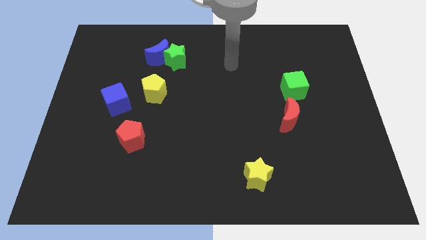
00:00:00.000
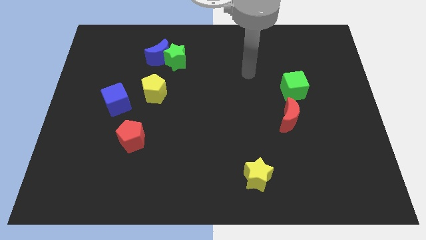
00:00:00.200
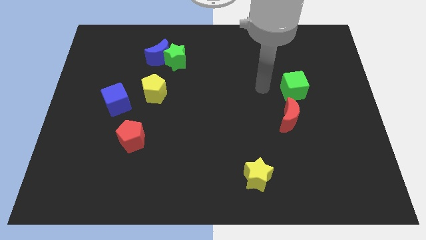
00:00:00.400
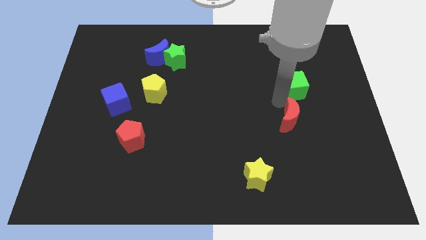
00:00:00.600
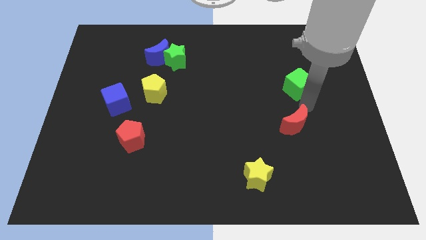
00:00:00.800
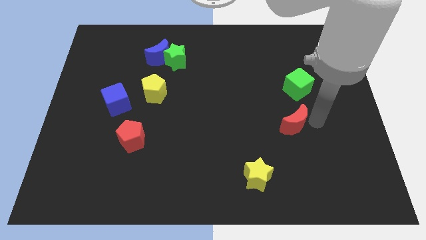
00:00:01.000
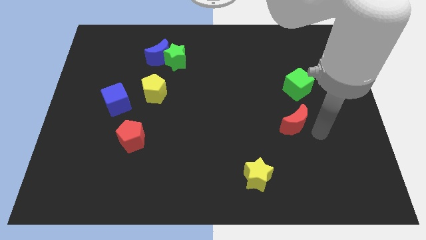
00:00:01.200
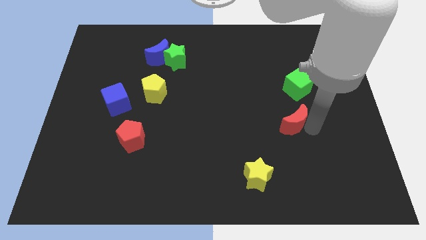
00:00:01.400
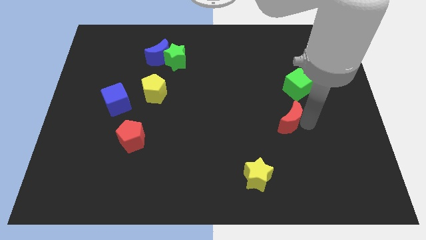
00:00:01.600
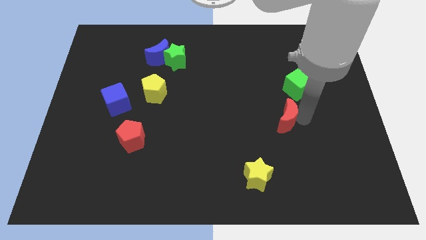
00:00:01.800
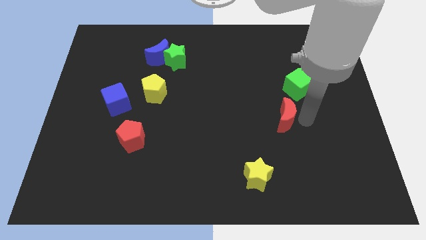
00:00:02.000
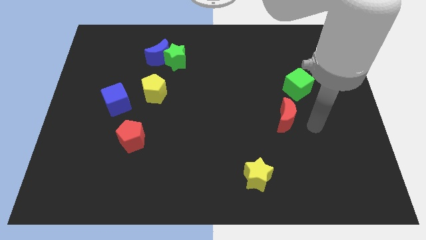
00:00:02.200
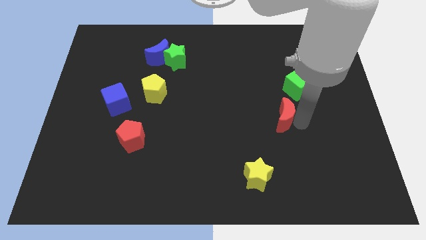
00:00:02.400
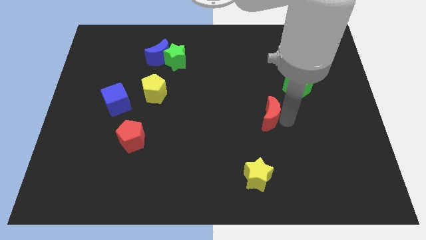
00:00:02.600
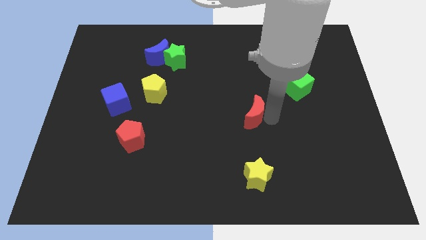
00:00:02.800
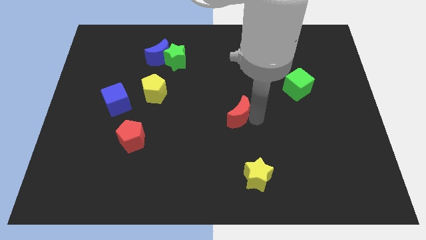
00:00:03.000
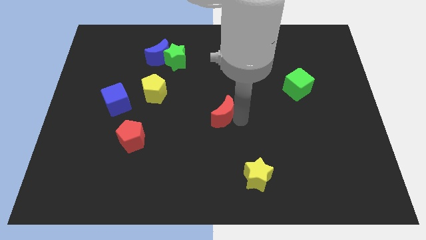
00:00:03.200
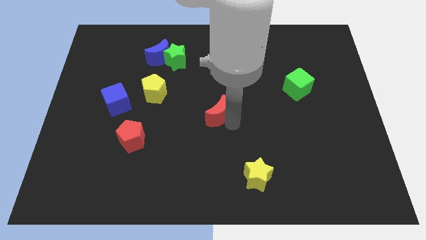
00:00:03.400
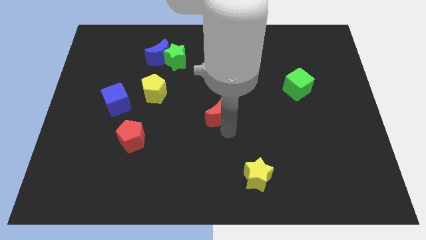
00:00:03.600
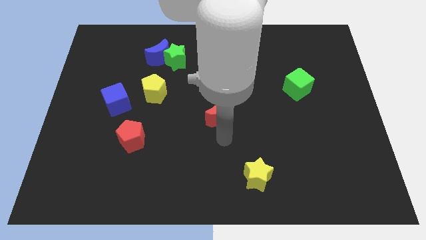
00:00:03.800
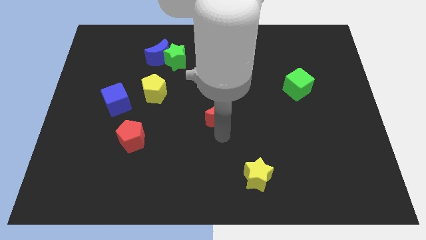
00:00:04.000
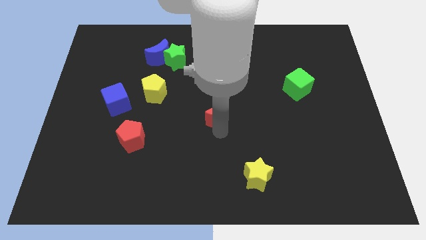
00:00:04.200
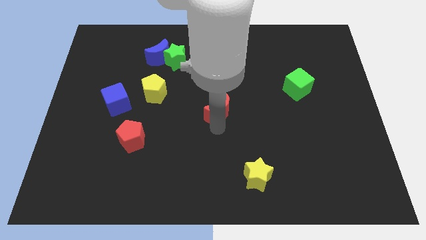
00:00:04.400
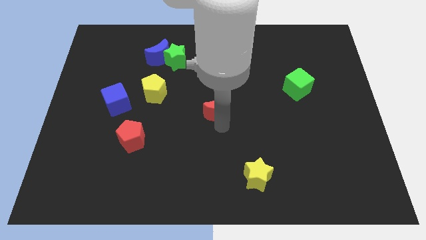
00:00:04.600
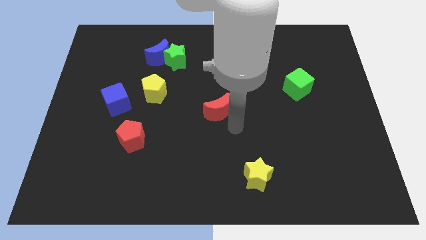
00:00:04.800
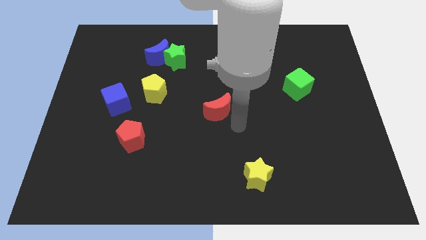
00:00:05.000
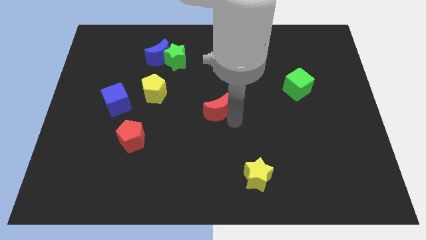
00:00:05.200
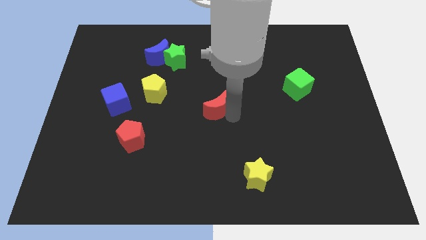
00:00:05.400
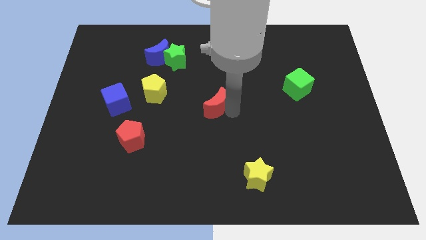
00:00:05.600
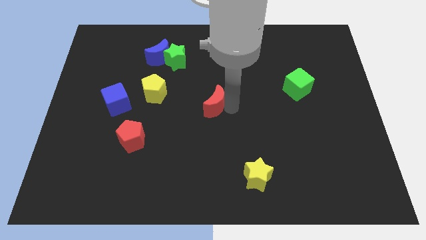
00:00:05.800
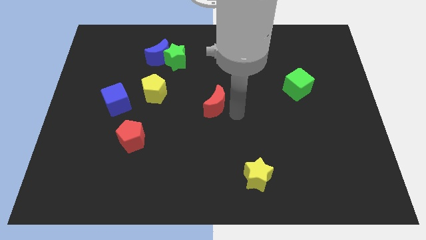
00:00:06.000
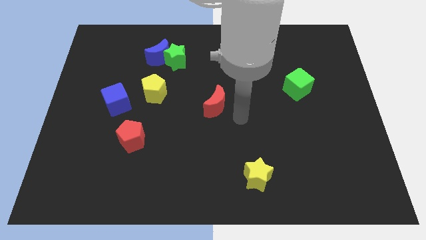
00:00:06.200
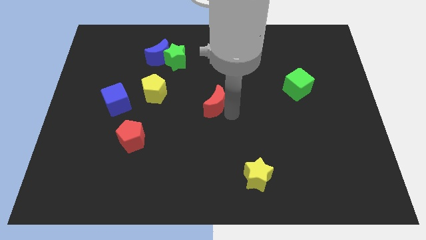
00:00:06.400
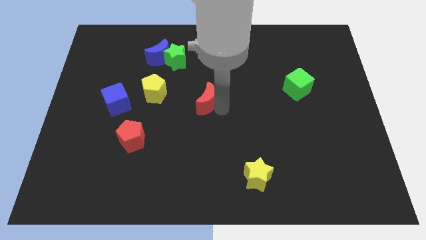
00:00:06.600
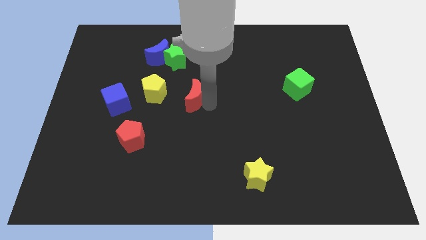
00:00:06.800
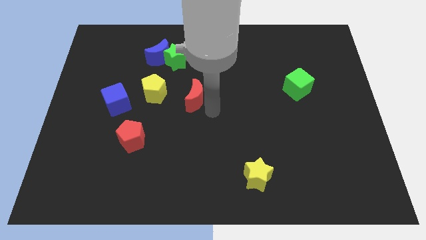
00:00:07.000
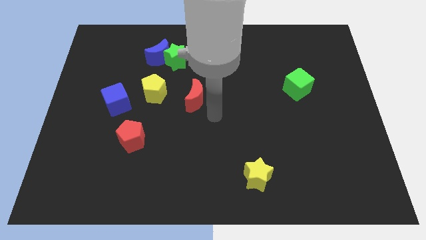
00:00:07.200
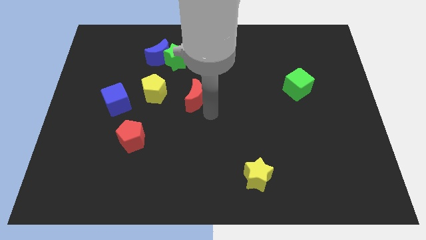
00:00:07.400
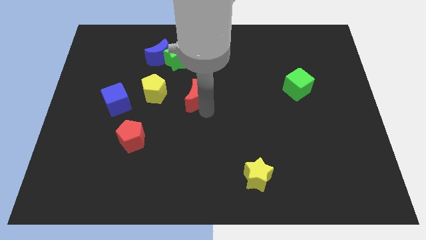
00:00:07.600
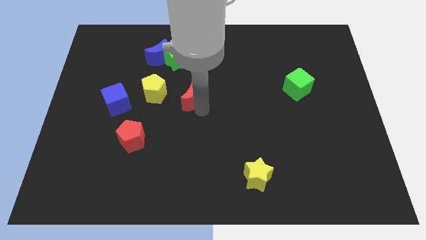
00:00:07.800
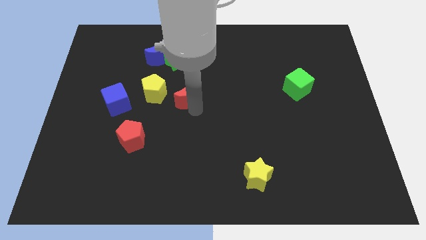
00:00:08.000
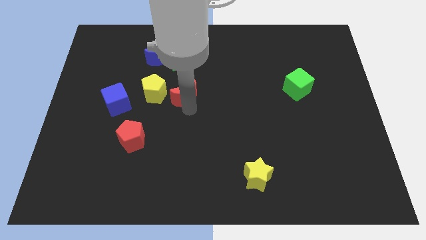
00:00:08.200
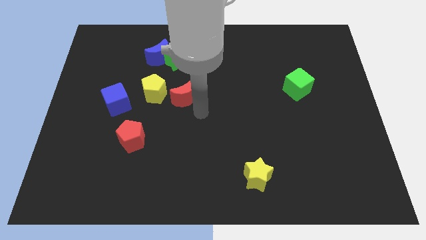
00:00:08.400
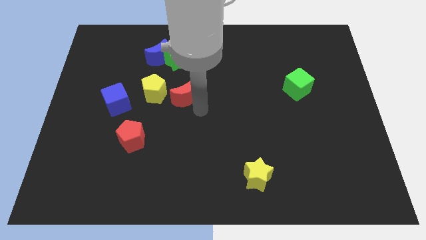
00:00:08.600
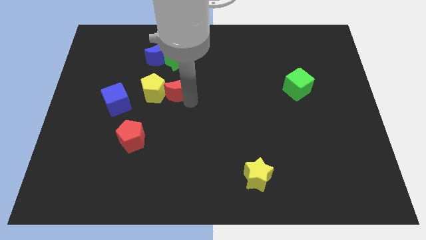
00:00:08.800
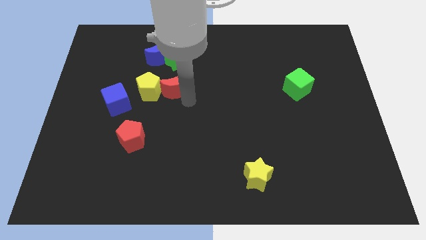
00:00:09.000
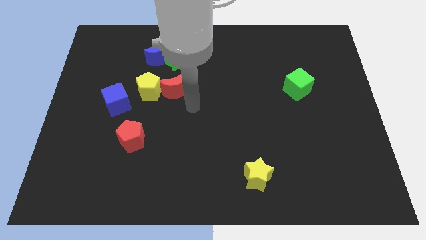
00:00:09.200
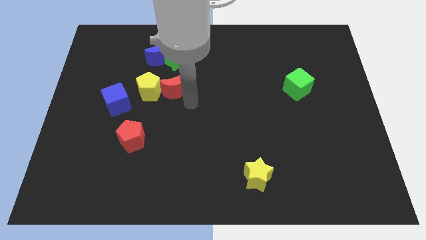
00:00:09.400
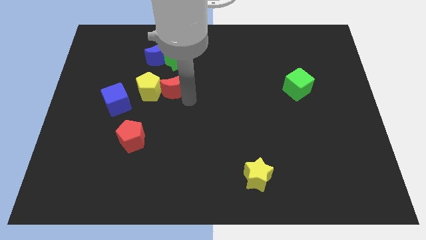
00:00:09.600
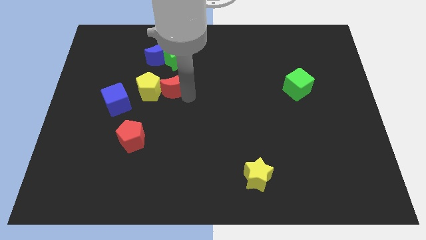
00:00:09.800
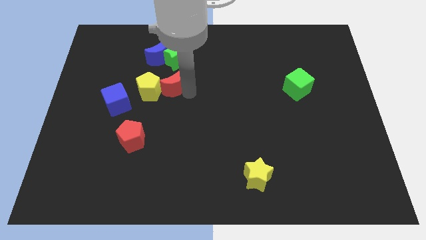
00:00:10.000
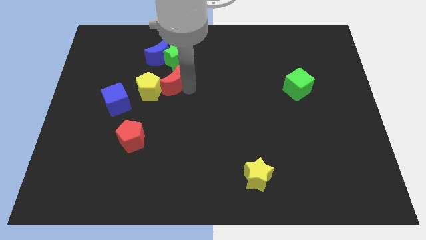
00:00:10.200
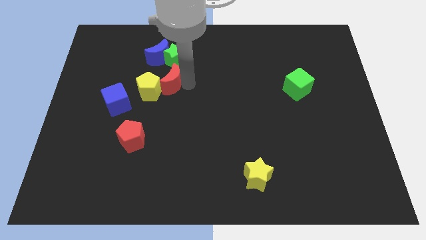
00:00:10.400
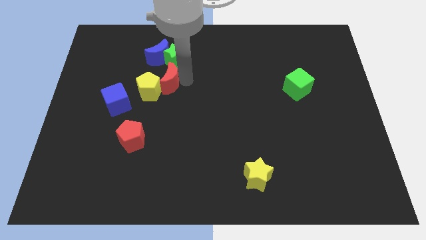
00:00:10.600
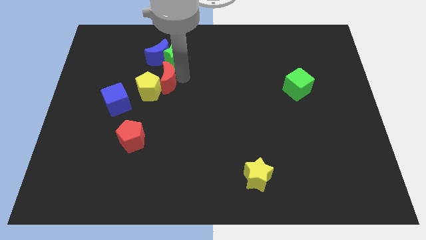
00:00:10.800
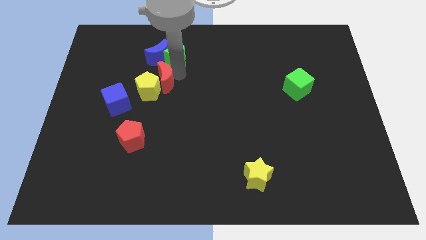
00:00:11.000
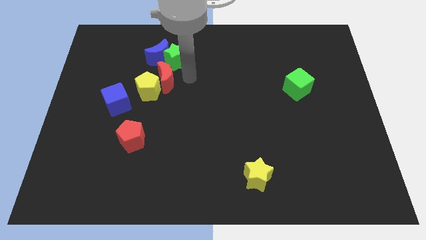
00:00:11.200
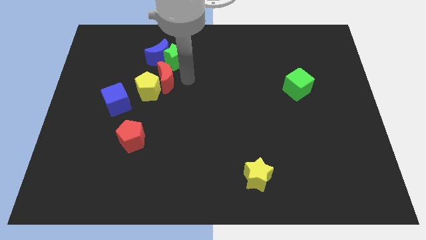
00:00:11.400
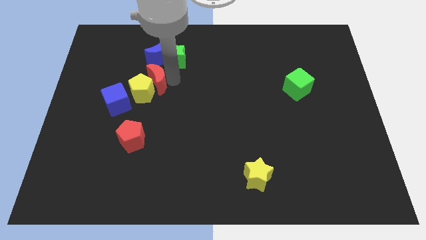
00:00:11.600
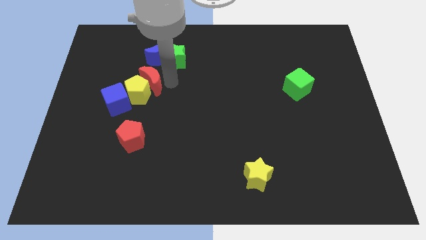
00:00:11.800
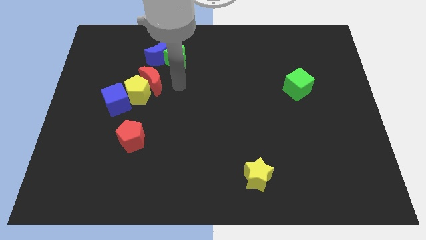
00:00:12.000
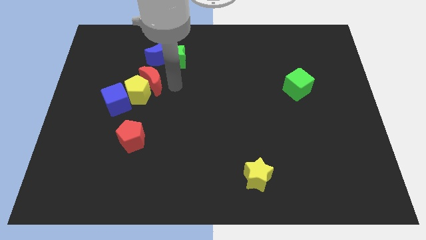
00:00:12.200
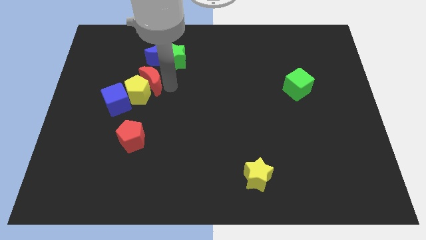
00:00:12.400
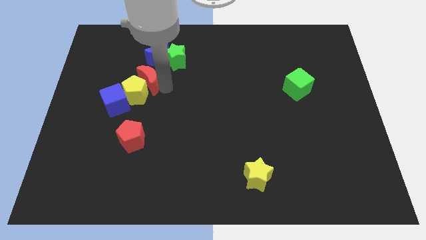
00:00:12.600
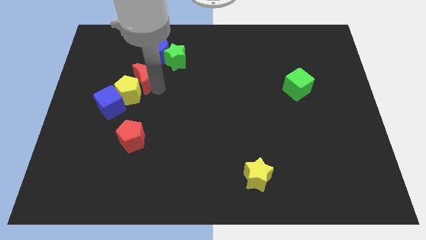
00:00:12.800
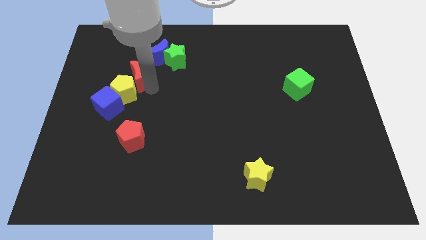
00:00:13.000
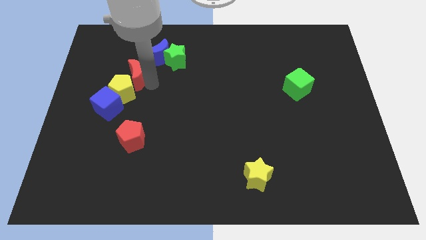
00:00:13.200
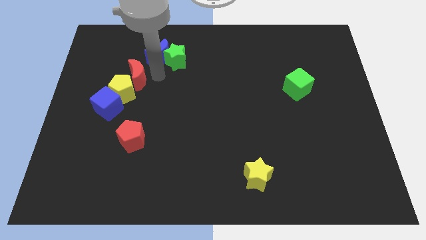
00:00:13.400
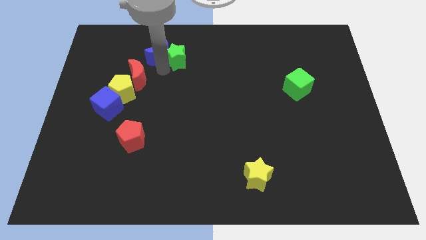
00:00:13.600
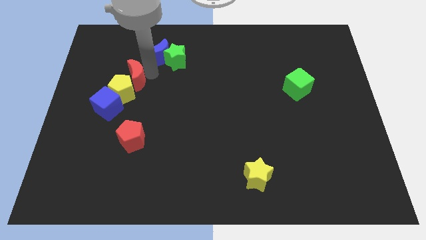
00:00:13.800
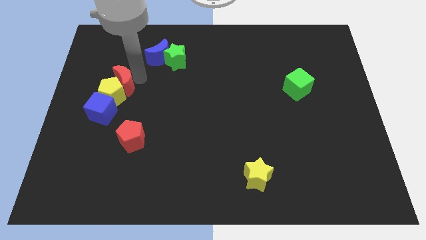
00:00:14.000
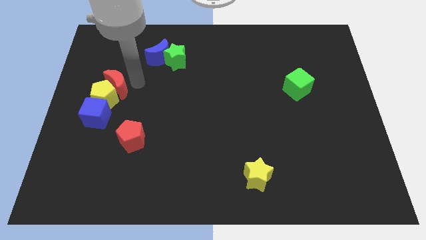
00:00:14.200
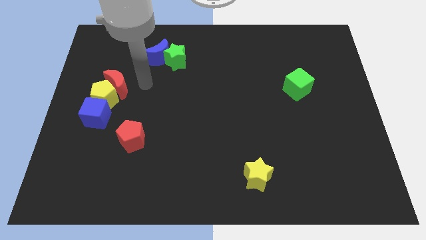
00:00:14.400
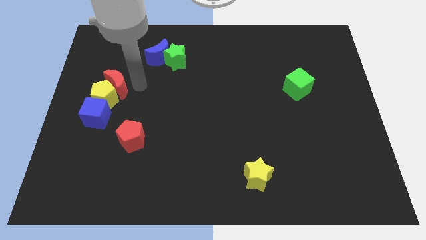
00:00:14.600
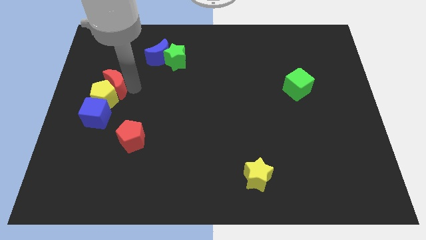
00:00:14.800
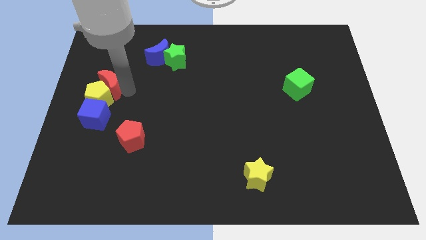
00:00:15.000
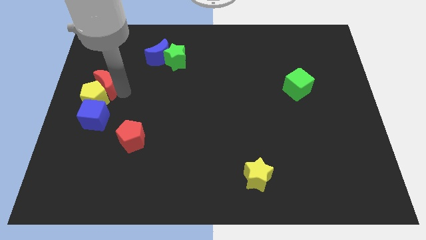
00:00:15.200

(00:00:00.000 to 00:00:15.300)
move the red moon to the center left
